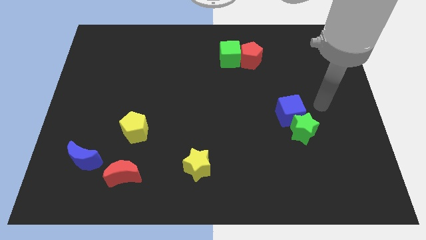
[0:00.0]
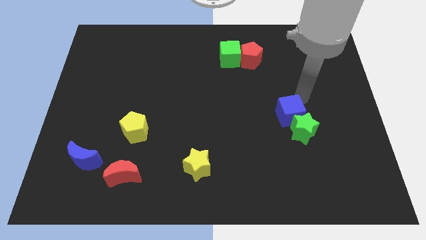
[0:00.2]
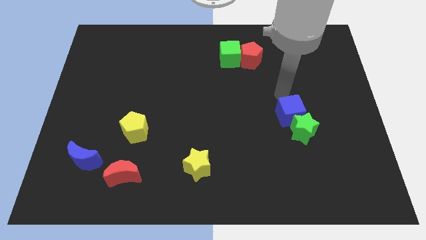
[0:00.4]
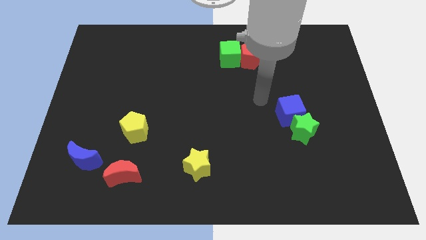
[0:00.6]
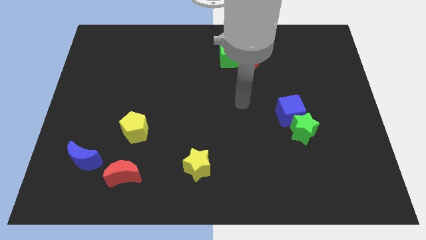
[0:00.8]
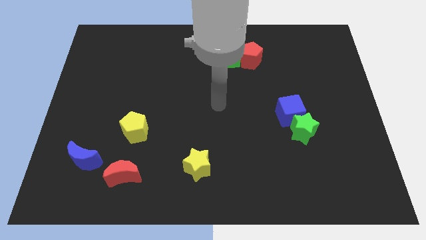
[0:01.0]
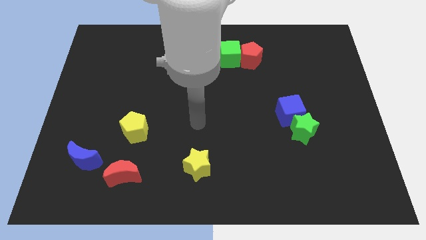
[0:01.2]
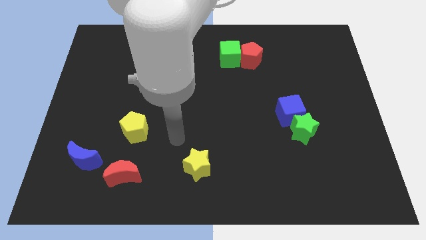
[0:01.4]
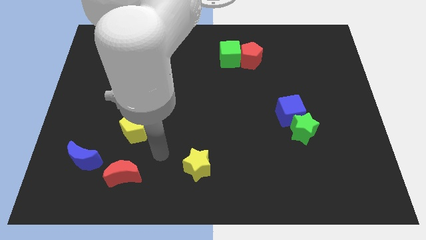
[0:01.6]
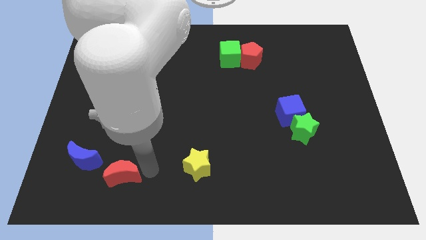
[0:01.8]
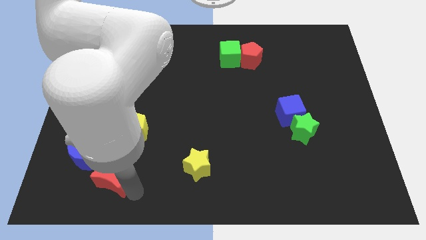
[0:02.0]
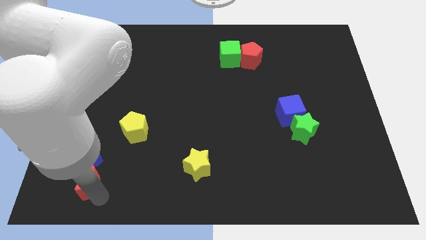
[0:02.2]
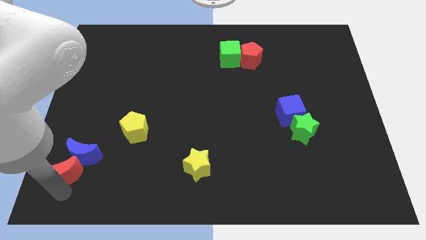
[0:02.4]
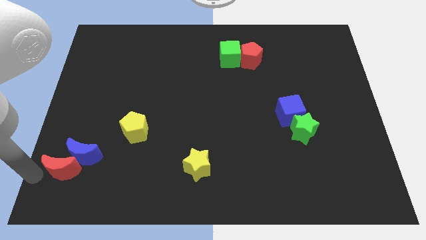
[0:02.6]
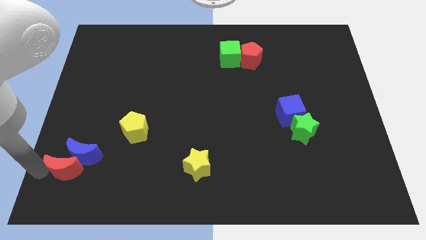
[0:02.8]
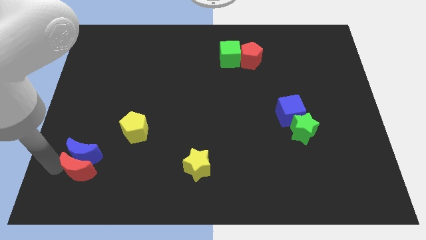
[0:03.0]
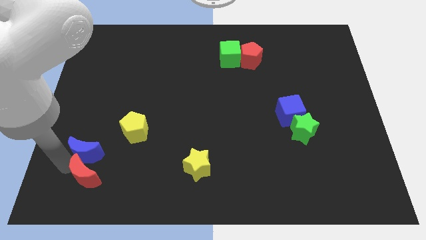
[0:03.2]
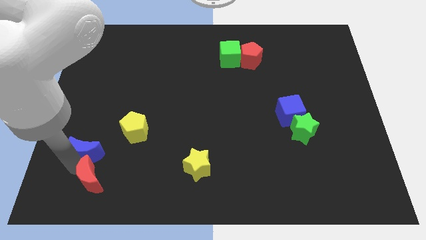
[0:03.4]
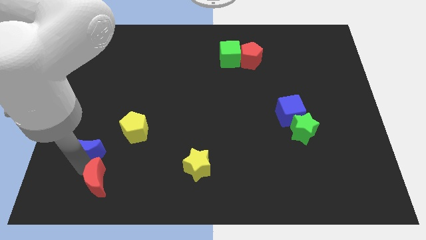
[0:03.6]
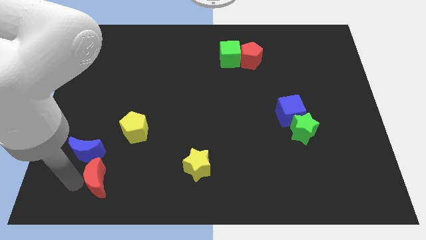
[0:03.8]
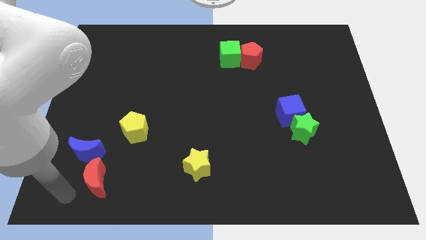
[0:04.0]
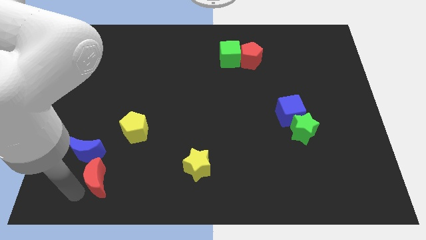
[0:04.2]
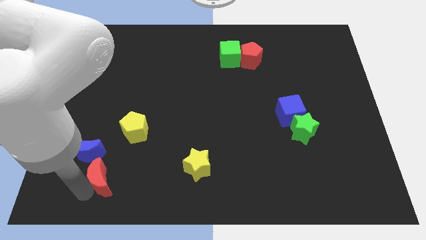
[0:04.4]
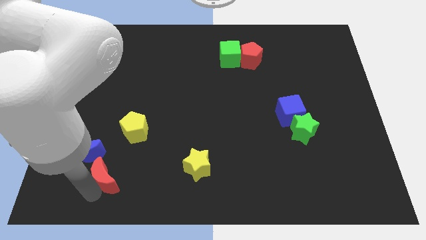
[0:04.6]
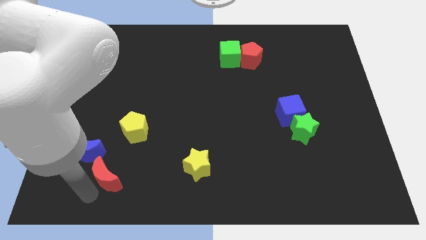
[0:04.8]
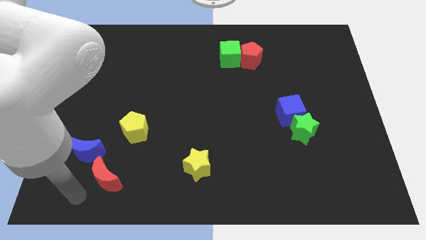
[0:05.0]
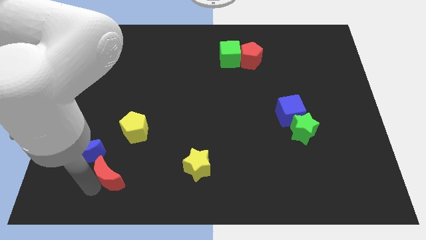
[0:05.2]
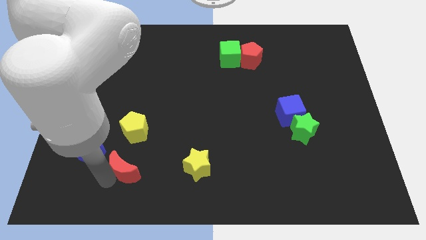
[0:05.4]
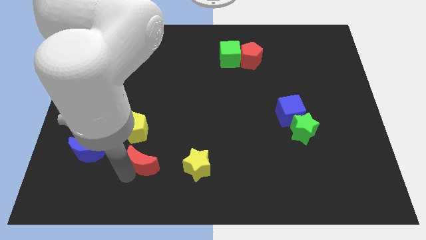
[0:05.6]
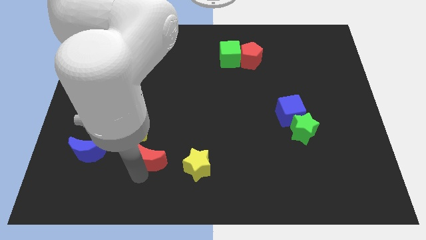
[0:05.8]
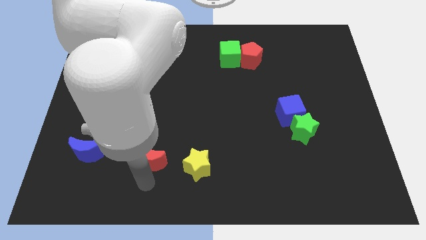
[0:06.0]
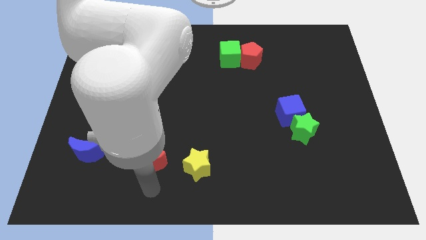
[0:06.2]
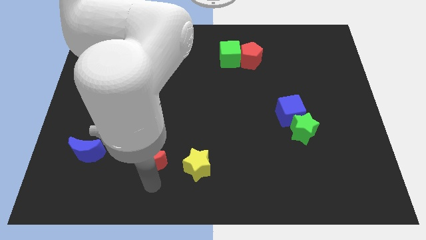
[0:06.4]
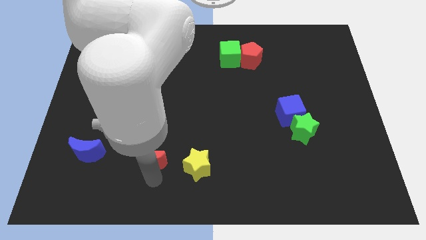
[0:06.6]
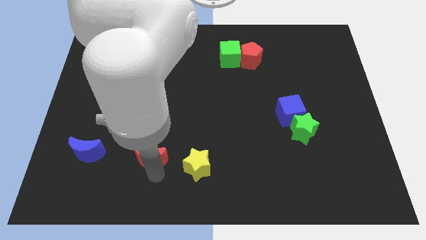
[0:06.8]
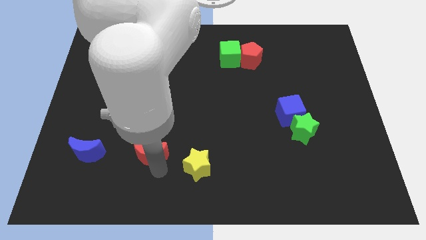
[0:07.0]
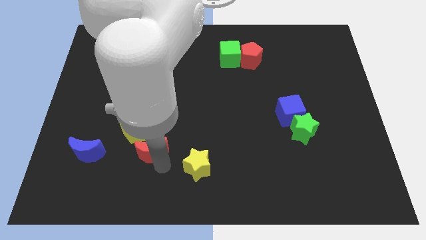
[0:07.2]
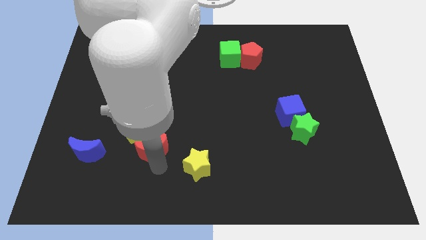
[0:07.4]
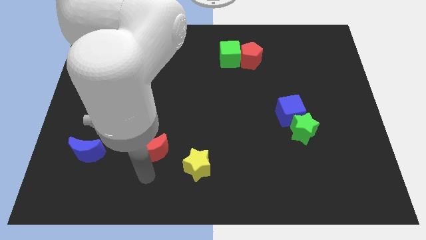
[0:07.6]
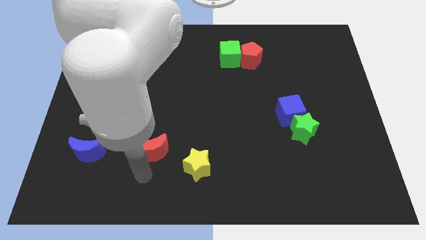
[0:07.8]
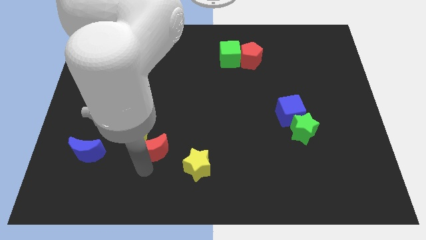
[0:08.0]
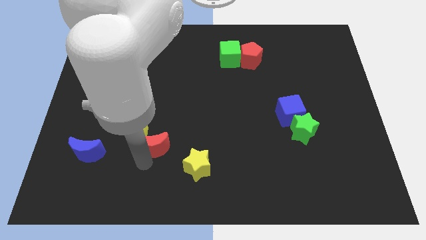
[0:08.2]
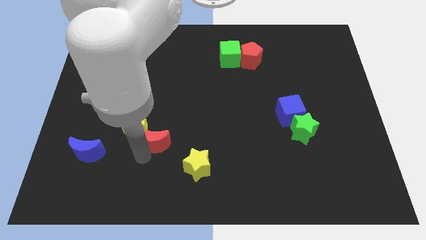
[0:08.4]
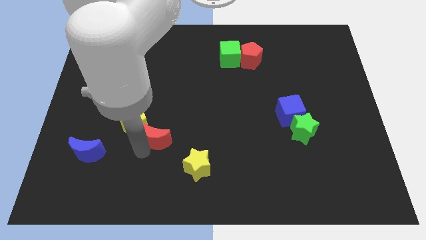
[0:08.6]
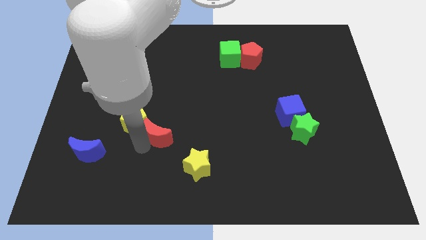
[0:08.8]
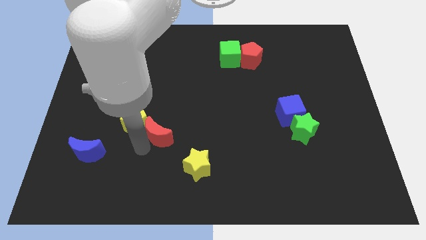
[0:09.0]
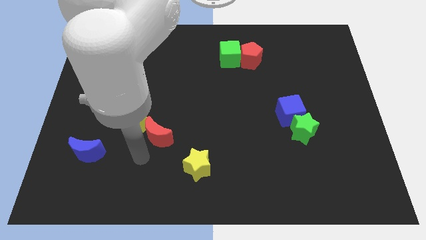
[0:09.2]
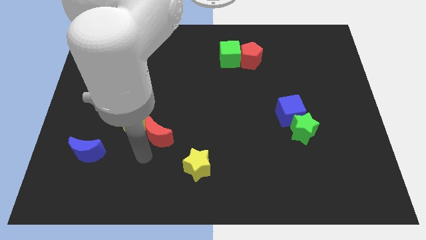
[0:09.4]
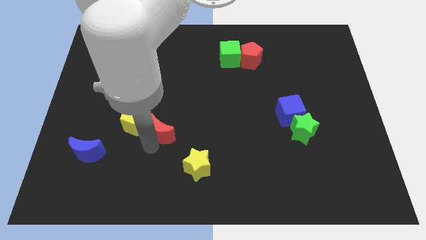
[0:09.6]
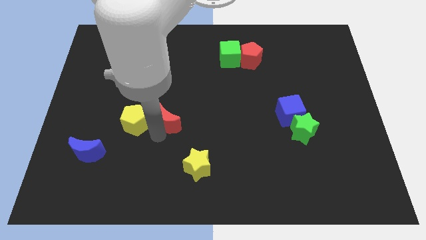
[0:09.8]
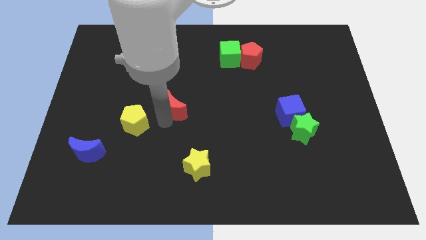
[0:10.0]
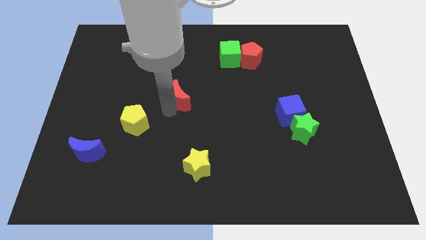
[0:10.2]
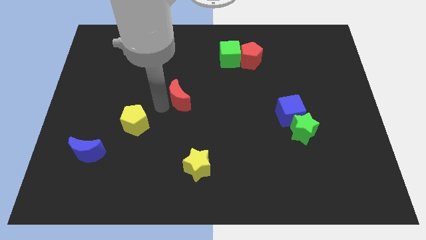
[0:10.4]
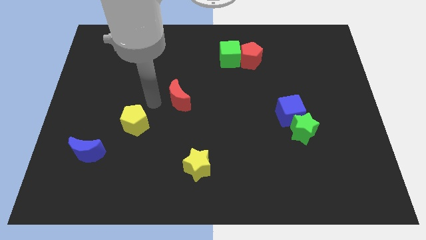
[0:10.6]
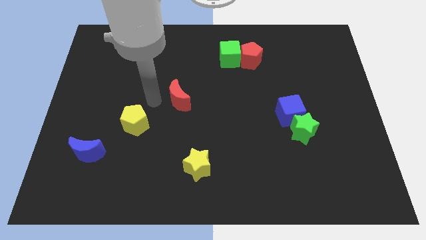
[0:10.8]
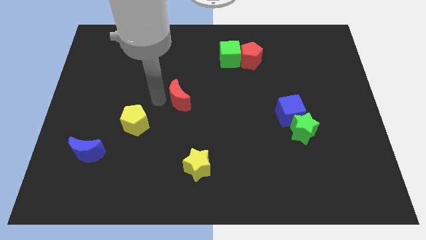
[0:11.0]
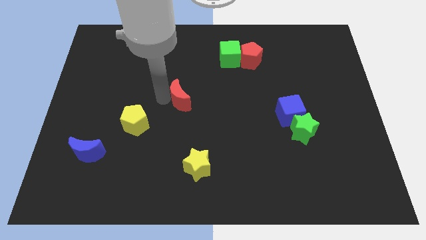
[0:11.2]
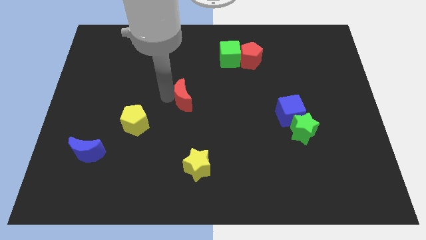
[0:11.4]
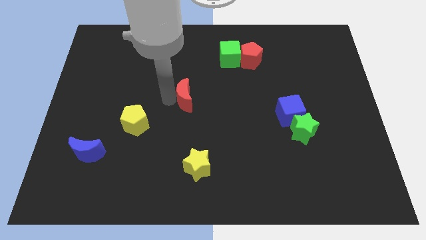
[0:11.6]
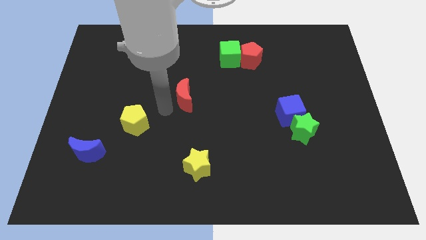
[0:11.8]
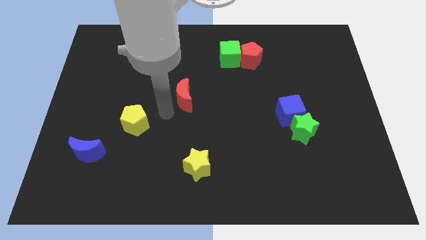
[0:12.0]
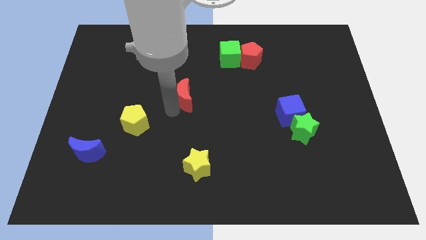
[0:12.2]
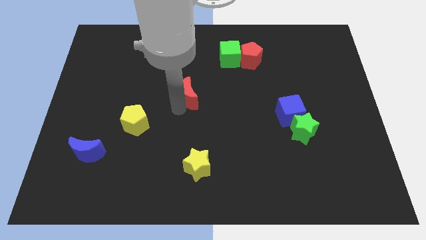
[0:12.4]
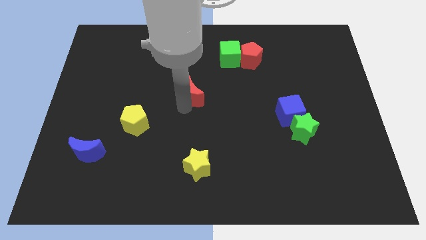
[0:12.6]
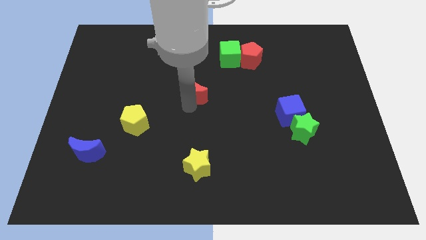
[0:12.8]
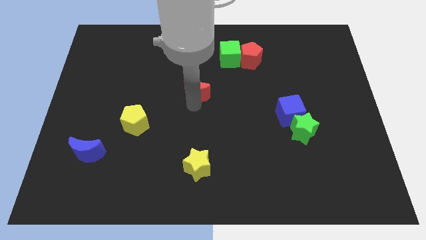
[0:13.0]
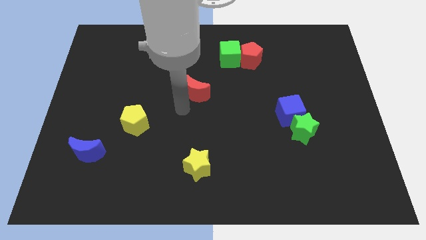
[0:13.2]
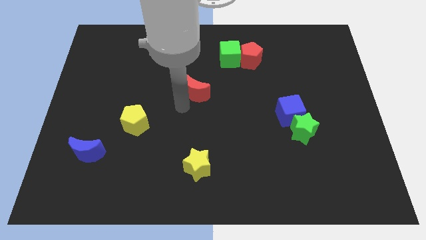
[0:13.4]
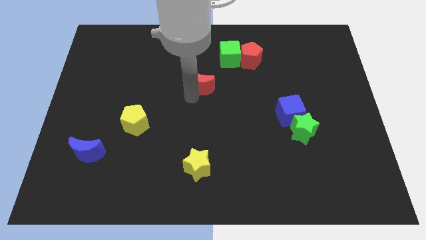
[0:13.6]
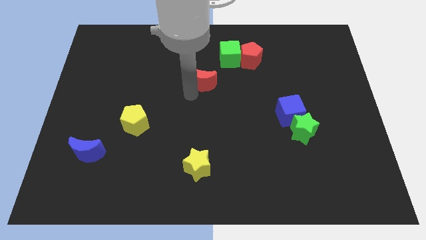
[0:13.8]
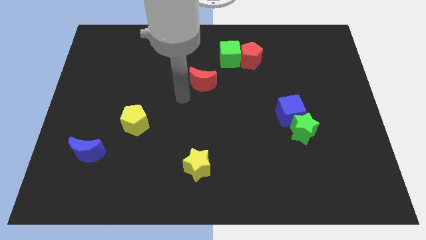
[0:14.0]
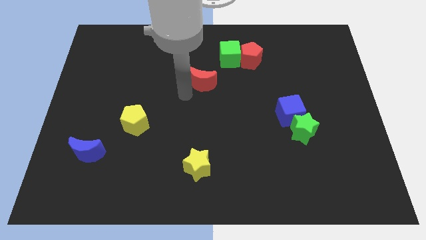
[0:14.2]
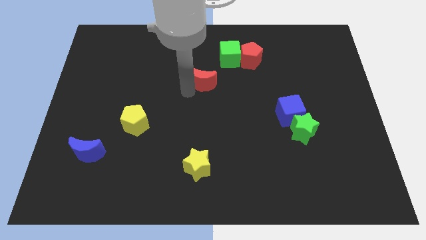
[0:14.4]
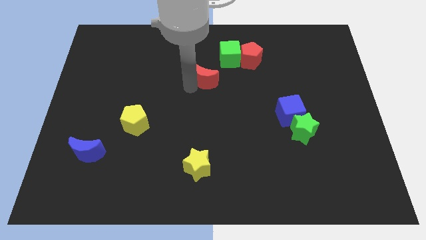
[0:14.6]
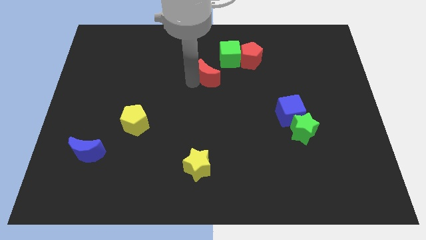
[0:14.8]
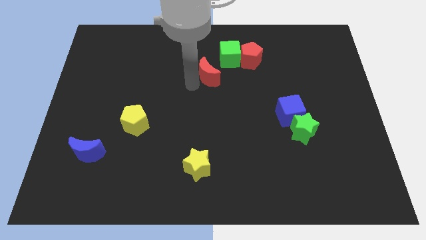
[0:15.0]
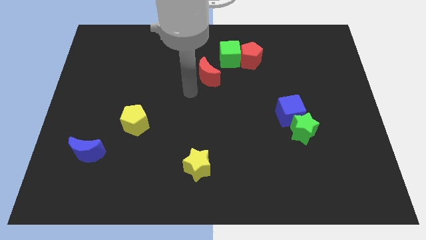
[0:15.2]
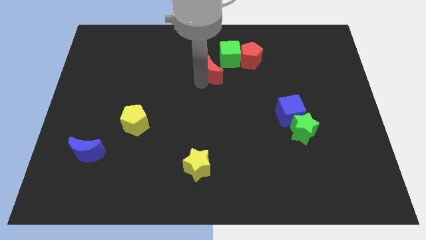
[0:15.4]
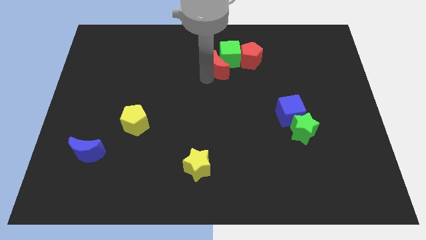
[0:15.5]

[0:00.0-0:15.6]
put the red moon towards the green cube

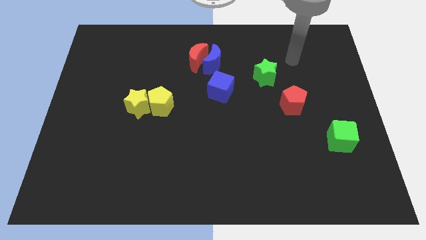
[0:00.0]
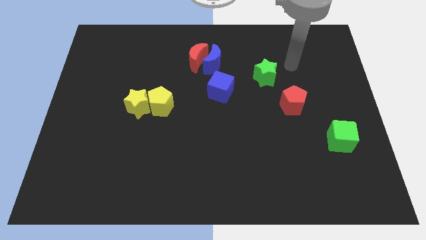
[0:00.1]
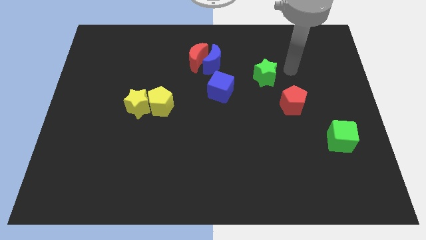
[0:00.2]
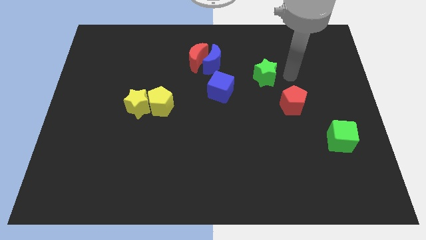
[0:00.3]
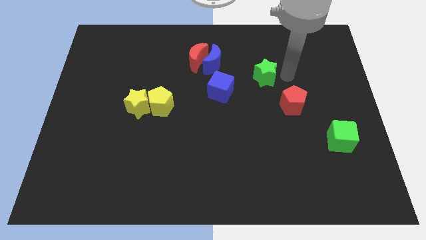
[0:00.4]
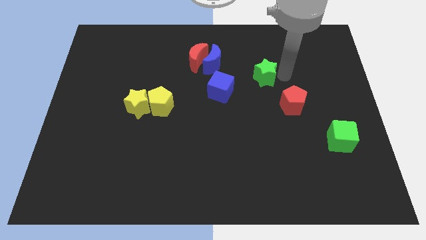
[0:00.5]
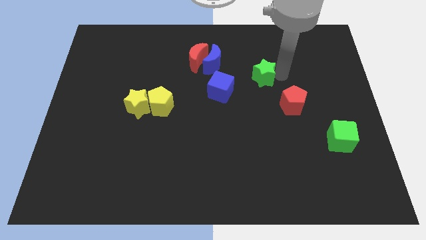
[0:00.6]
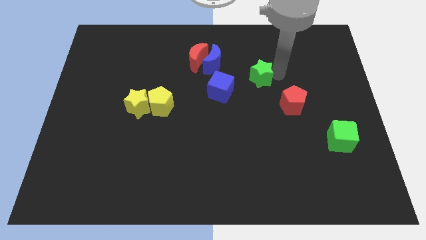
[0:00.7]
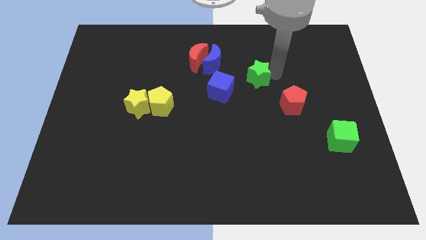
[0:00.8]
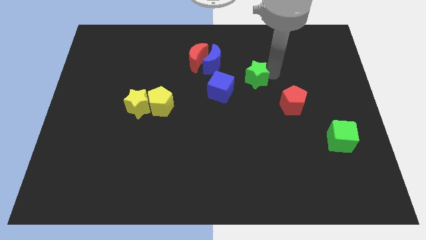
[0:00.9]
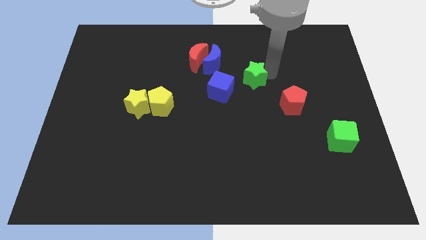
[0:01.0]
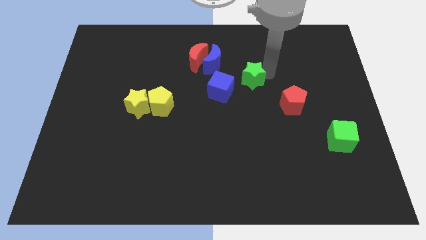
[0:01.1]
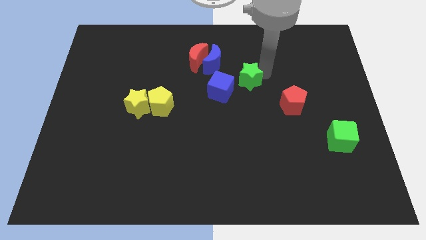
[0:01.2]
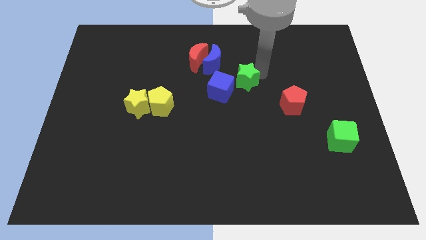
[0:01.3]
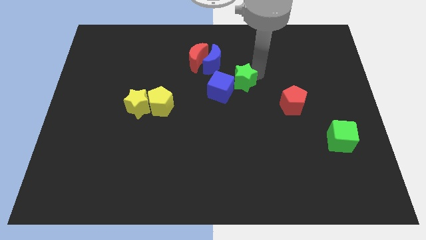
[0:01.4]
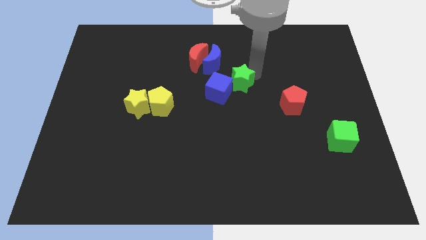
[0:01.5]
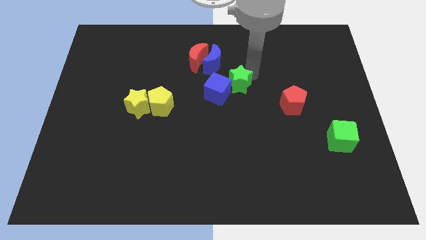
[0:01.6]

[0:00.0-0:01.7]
push the green star to the blue cube
